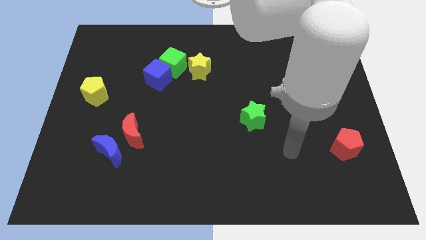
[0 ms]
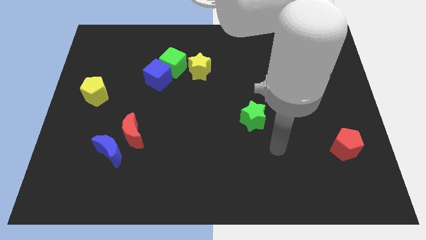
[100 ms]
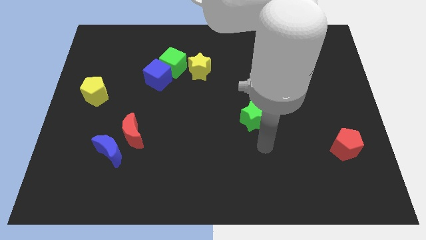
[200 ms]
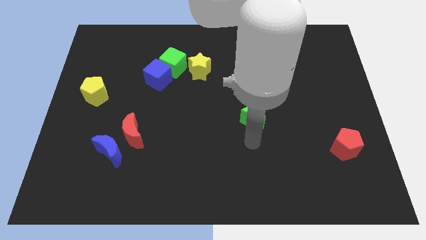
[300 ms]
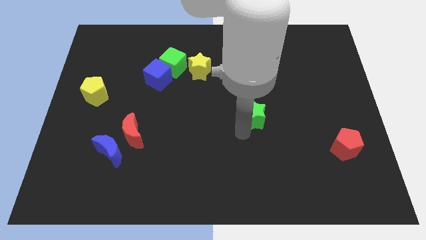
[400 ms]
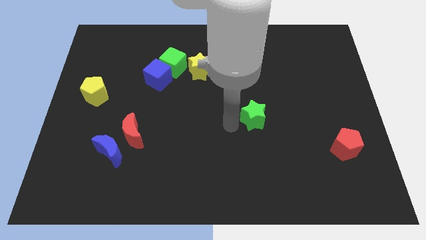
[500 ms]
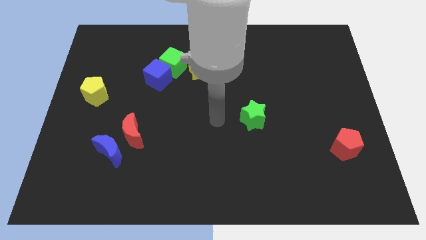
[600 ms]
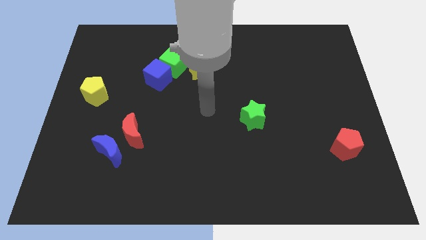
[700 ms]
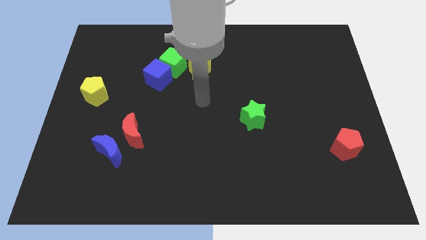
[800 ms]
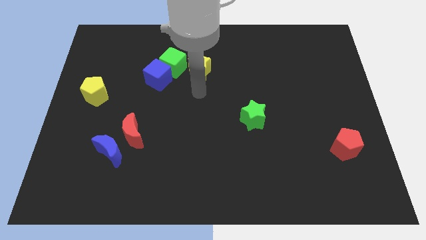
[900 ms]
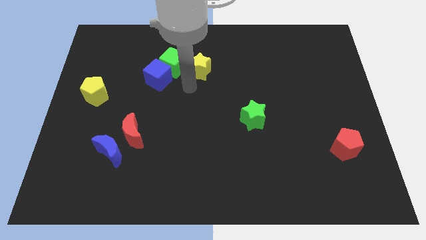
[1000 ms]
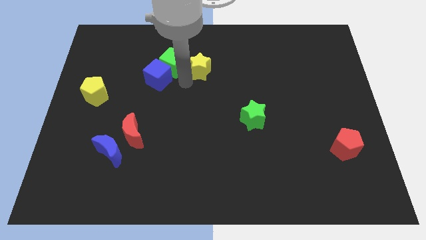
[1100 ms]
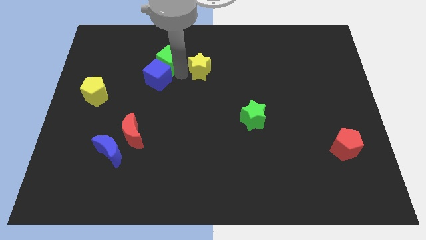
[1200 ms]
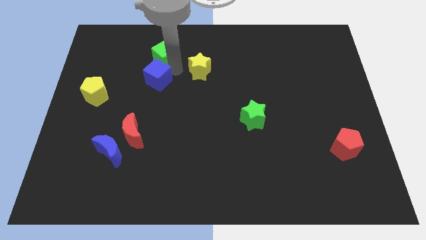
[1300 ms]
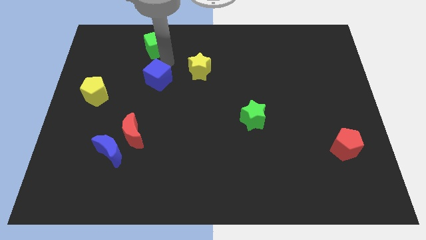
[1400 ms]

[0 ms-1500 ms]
separate the blue cube from the green cube

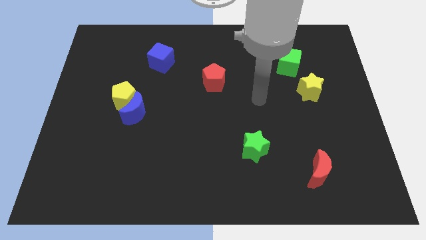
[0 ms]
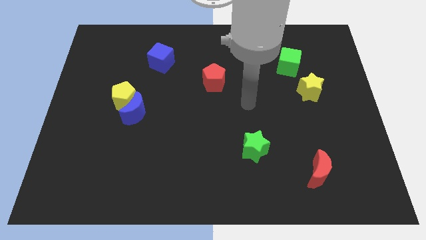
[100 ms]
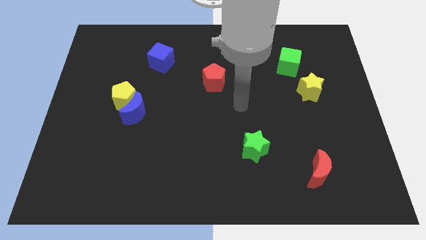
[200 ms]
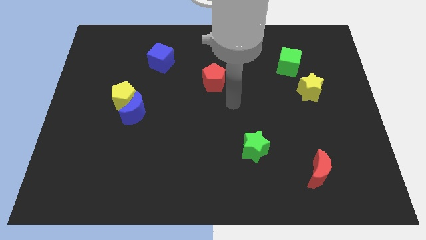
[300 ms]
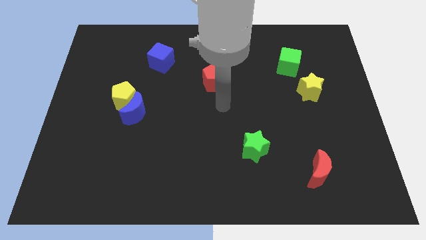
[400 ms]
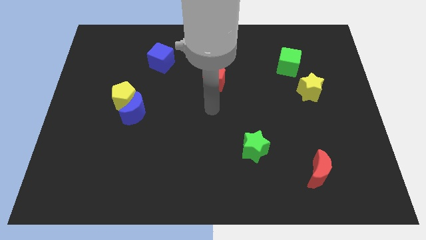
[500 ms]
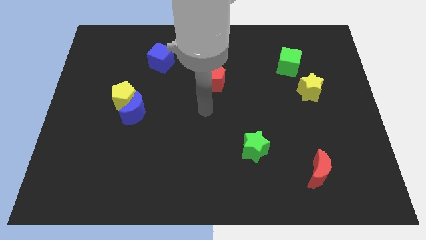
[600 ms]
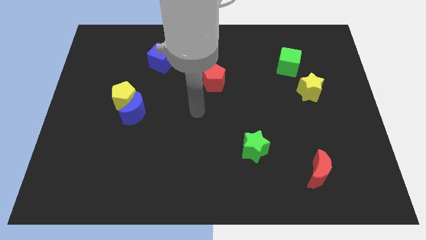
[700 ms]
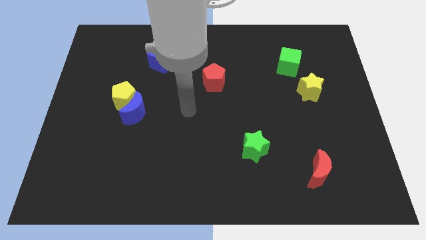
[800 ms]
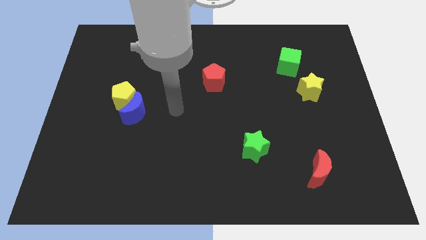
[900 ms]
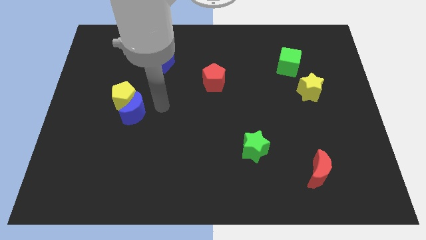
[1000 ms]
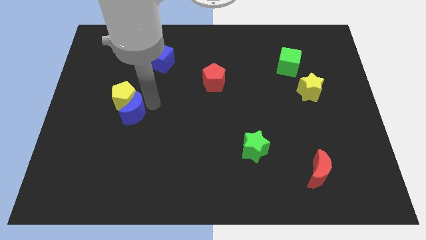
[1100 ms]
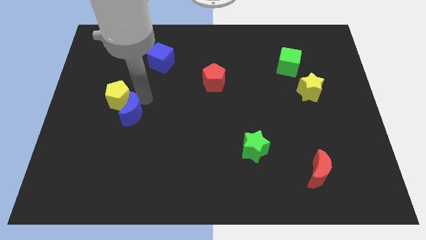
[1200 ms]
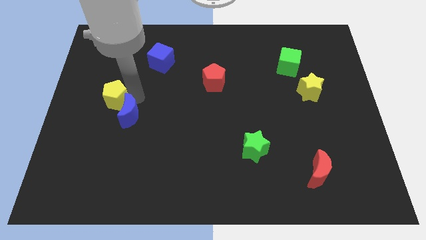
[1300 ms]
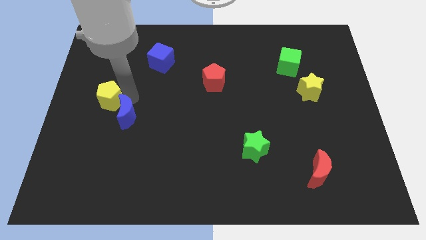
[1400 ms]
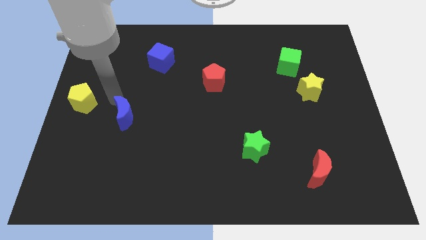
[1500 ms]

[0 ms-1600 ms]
move the blue moon away from the yellow pentagon

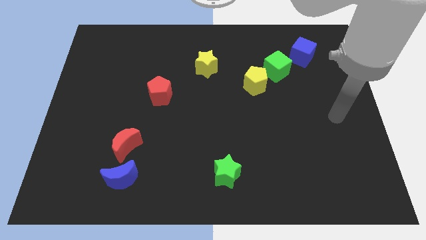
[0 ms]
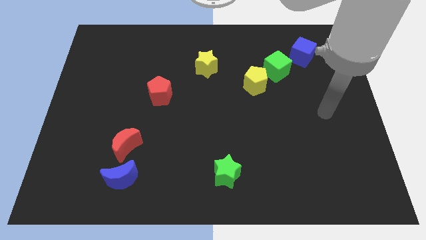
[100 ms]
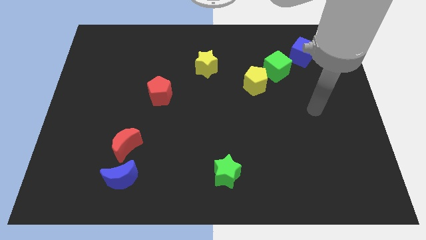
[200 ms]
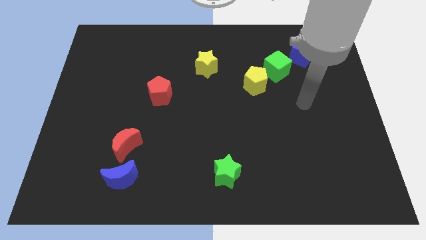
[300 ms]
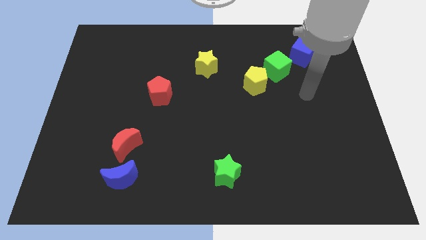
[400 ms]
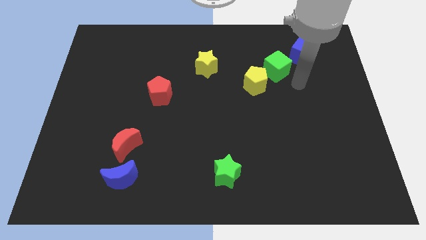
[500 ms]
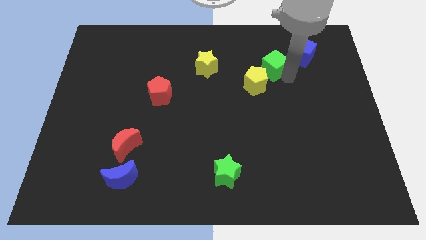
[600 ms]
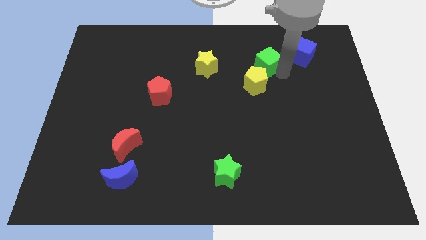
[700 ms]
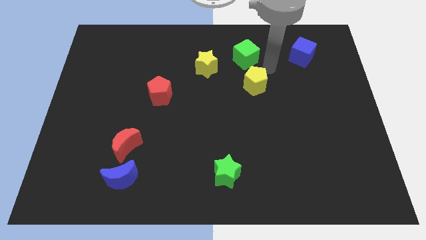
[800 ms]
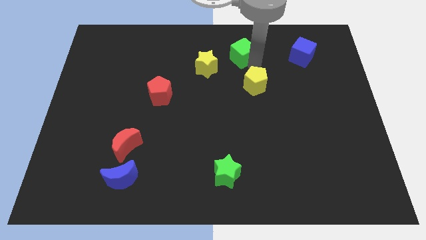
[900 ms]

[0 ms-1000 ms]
separate the yellow pentagon from the green cube

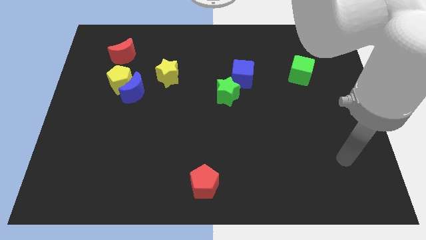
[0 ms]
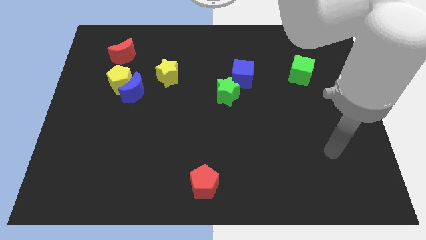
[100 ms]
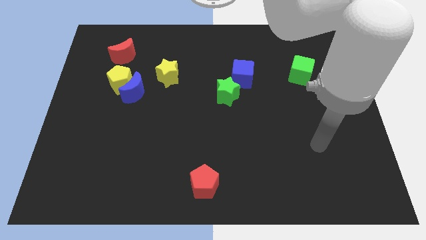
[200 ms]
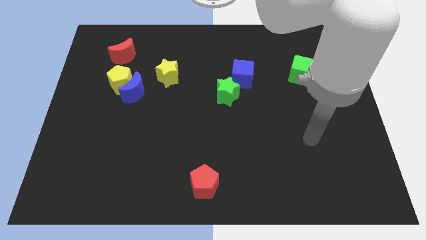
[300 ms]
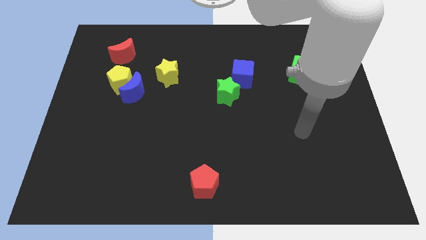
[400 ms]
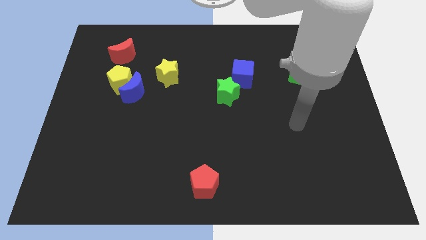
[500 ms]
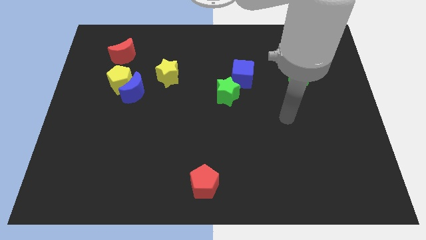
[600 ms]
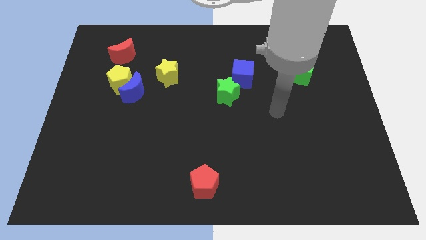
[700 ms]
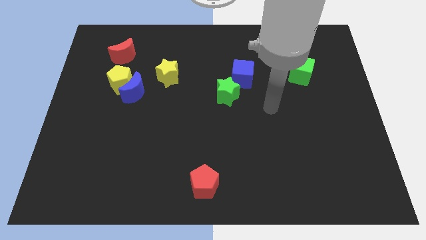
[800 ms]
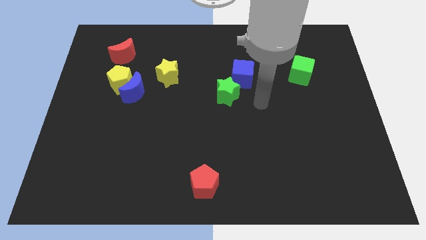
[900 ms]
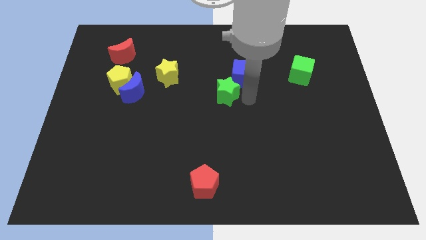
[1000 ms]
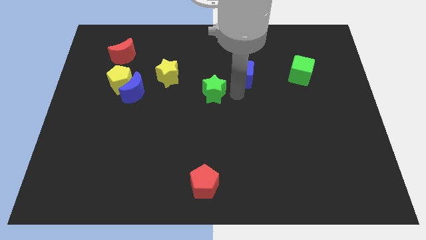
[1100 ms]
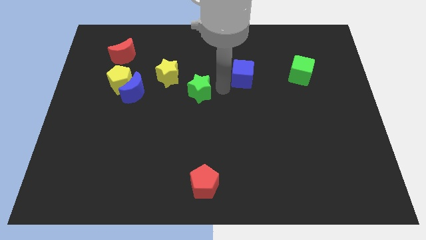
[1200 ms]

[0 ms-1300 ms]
separate the blue cube from the green star

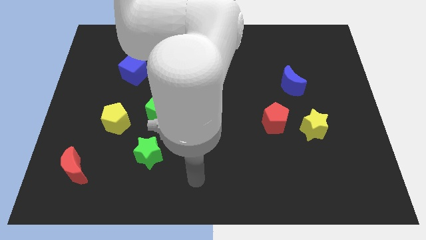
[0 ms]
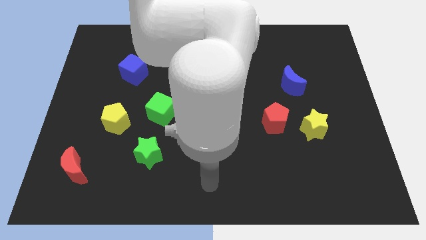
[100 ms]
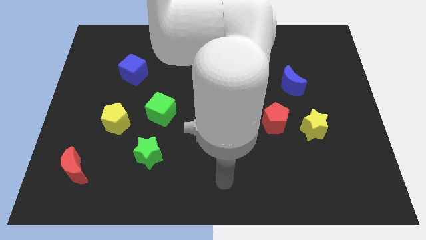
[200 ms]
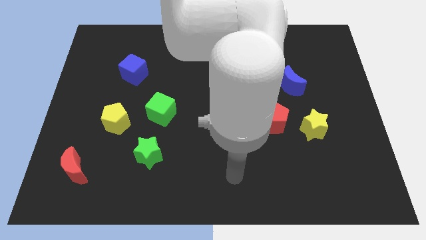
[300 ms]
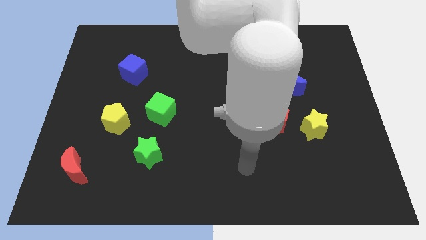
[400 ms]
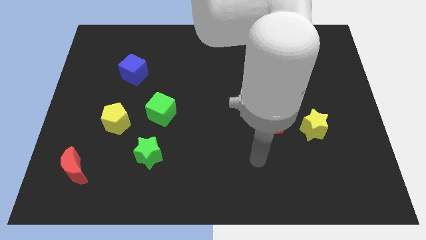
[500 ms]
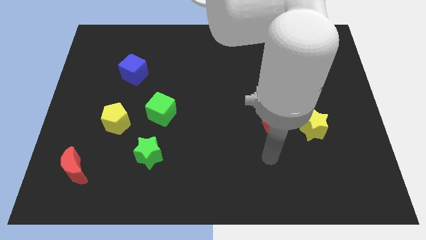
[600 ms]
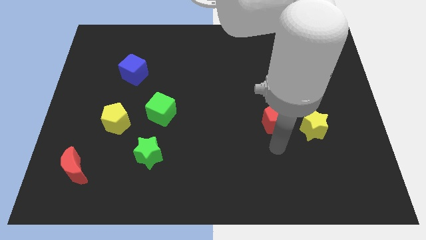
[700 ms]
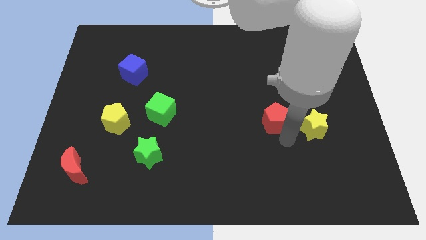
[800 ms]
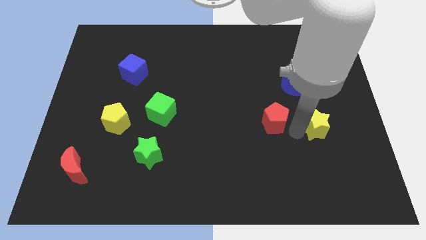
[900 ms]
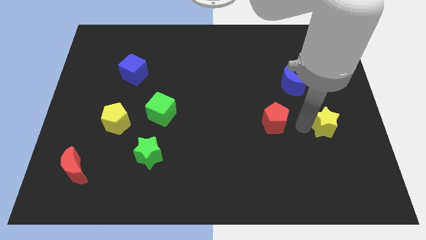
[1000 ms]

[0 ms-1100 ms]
separate the red pentagon from the yellow star

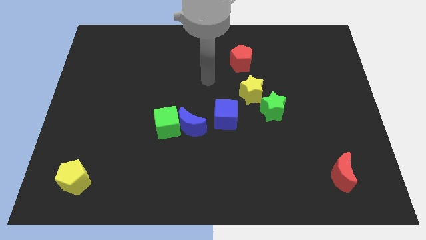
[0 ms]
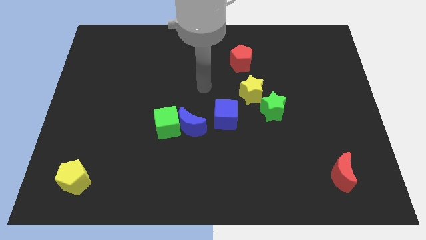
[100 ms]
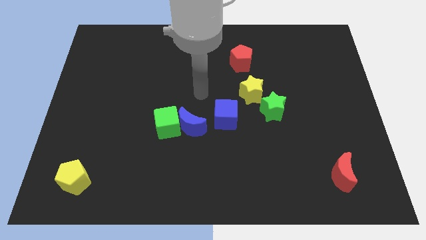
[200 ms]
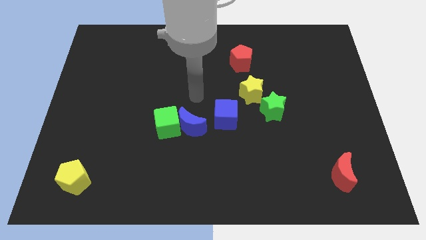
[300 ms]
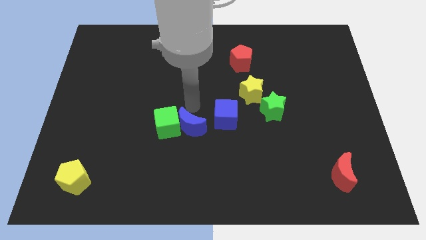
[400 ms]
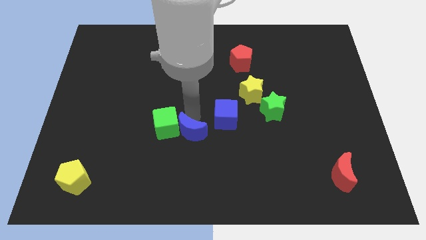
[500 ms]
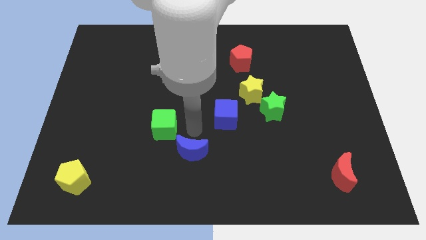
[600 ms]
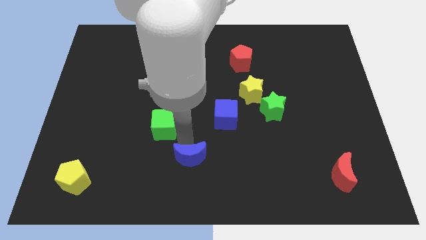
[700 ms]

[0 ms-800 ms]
separate the green cube from the blue moon

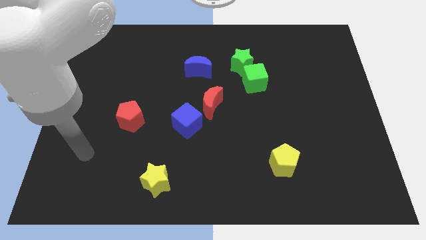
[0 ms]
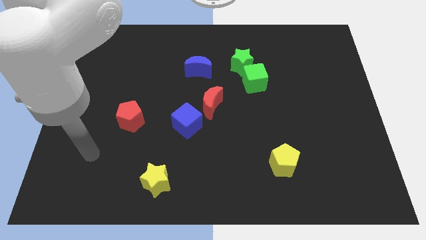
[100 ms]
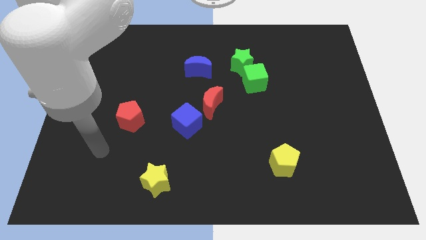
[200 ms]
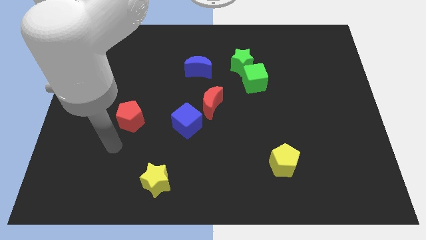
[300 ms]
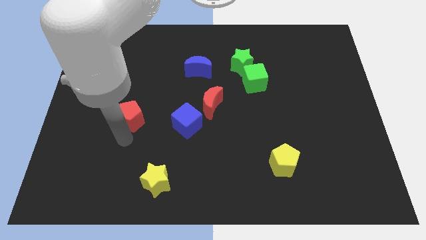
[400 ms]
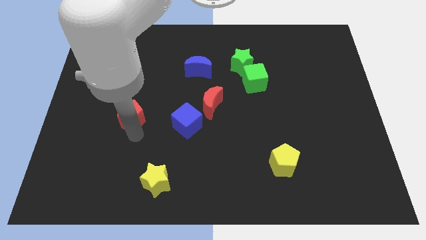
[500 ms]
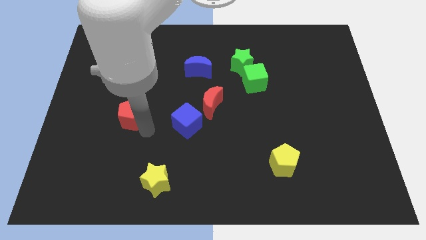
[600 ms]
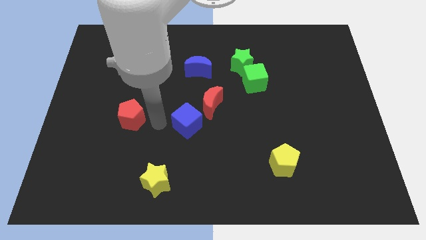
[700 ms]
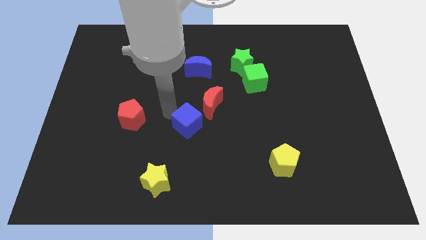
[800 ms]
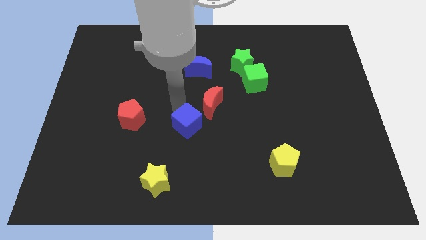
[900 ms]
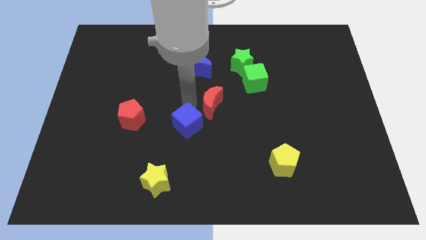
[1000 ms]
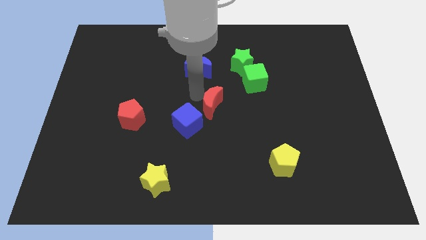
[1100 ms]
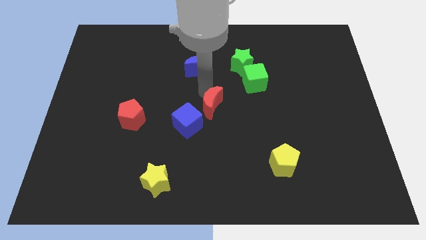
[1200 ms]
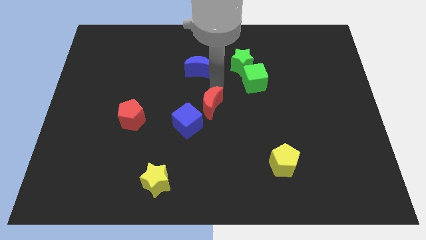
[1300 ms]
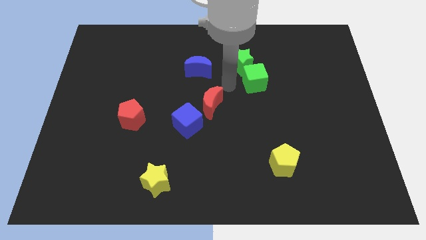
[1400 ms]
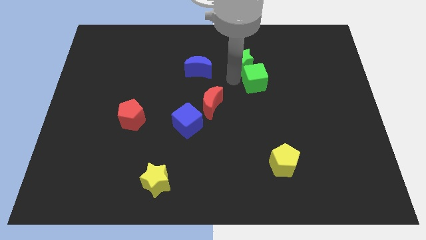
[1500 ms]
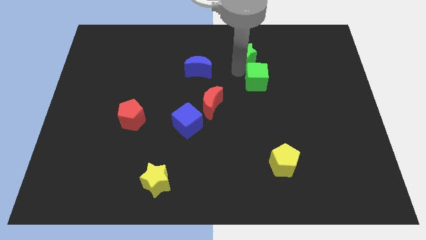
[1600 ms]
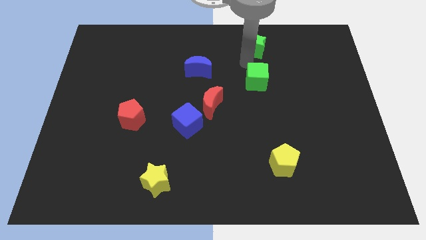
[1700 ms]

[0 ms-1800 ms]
separate the green cube from the green star

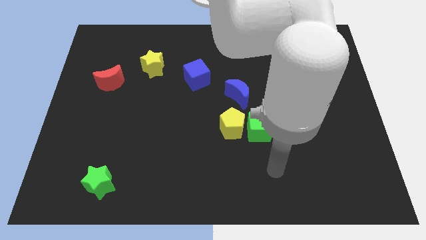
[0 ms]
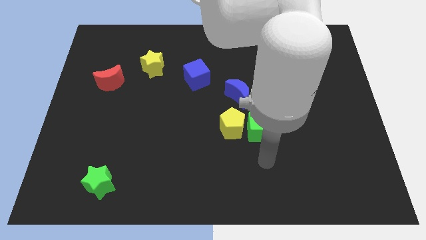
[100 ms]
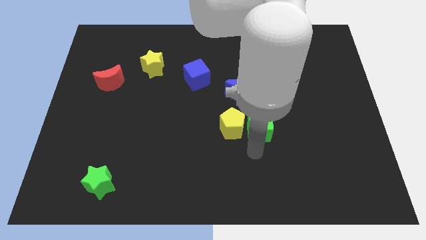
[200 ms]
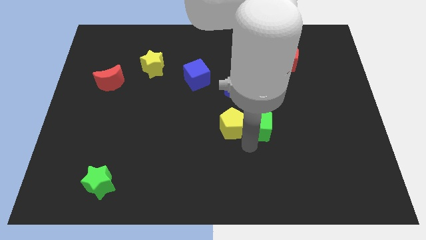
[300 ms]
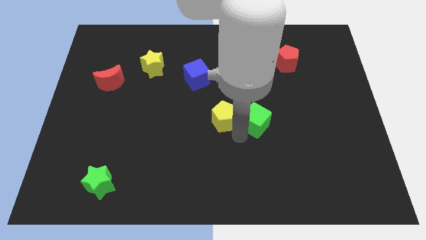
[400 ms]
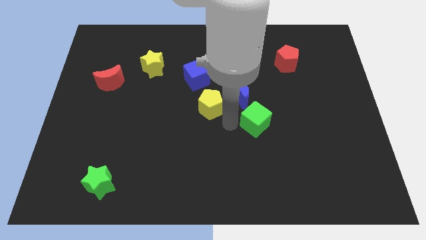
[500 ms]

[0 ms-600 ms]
move the green cube away from the yellow pentagon
